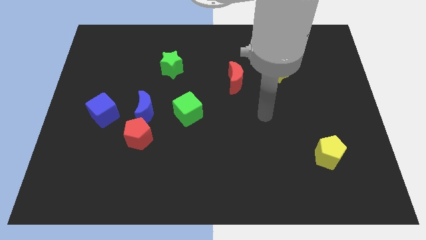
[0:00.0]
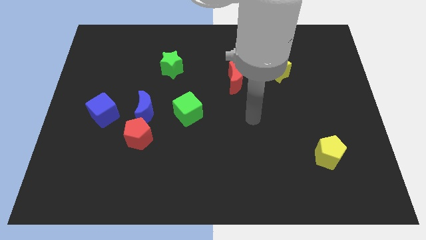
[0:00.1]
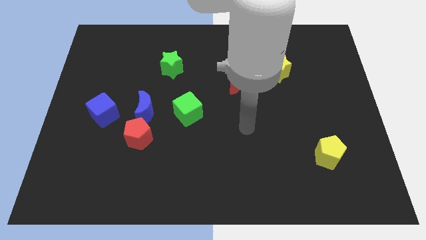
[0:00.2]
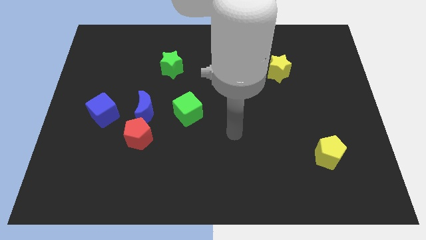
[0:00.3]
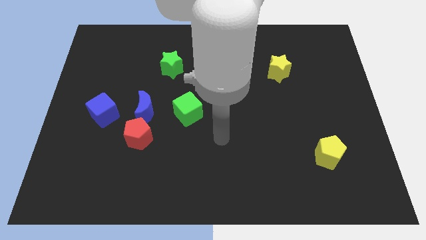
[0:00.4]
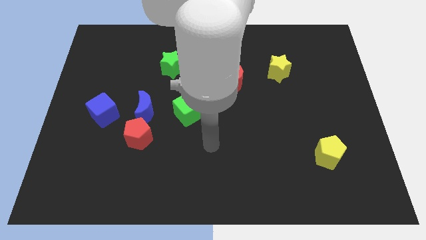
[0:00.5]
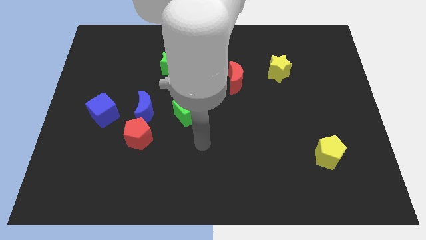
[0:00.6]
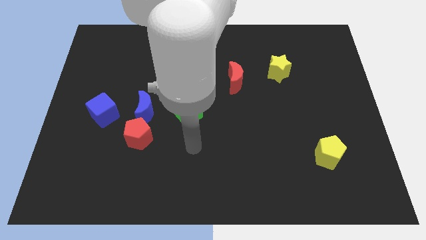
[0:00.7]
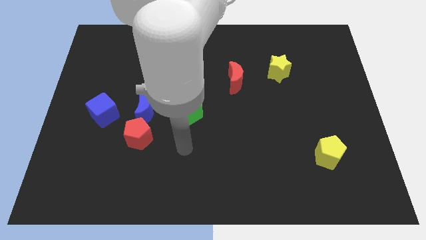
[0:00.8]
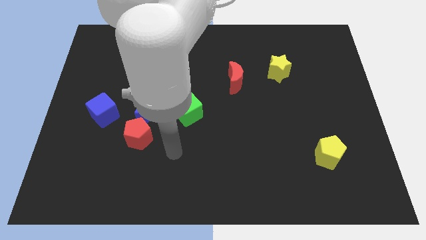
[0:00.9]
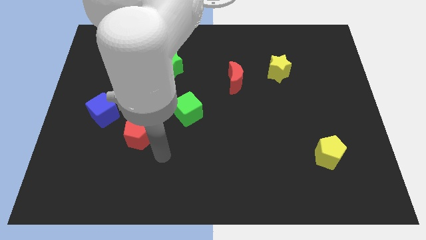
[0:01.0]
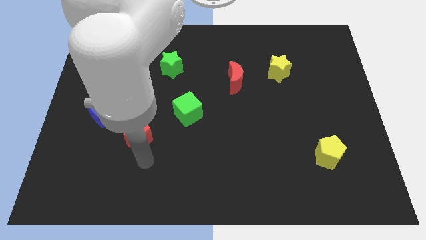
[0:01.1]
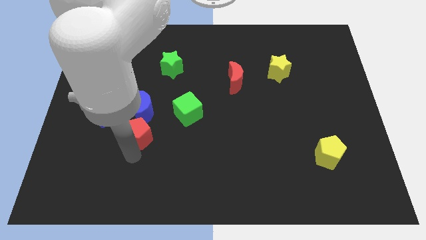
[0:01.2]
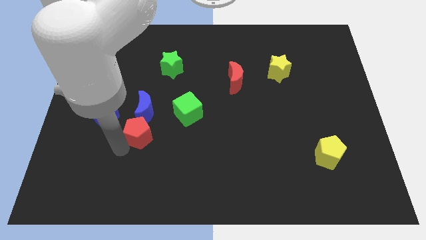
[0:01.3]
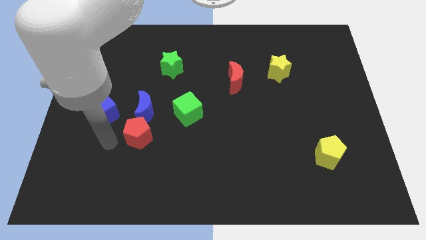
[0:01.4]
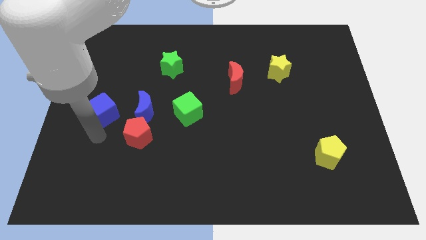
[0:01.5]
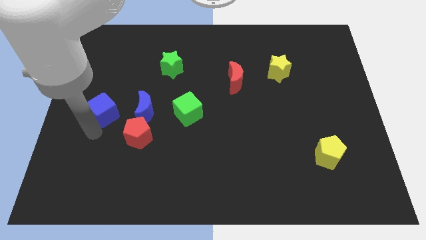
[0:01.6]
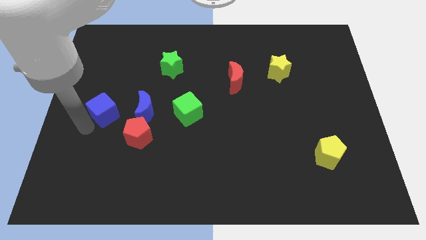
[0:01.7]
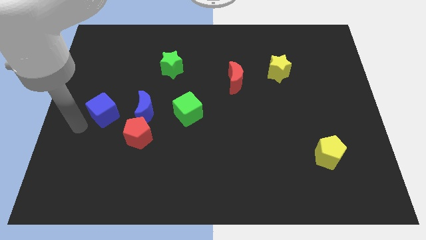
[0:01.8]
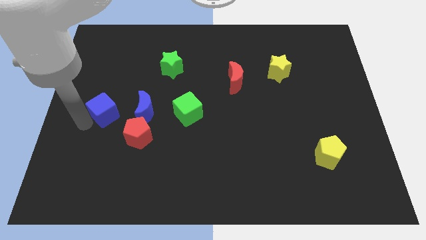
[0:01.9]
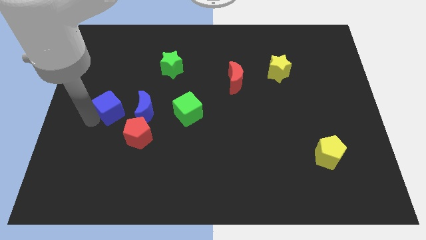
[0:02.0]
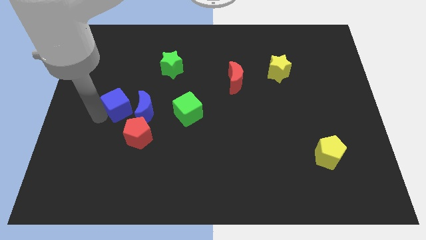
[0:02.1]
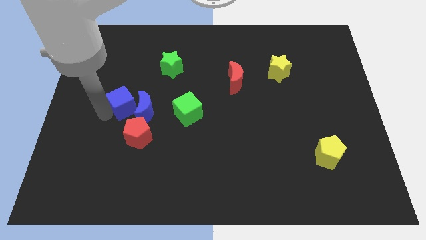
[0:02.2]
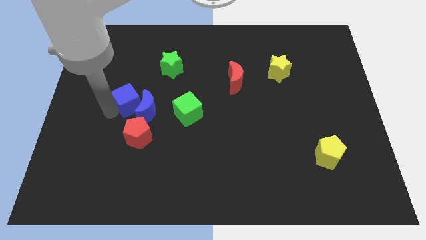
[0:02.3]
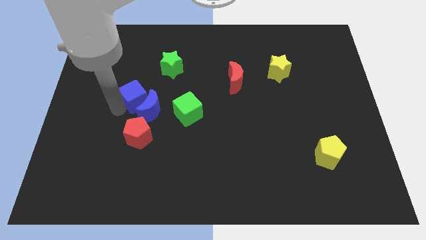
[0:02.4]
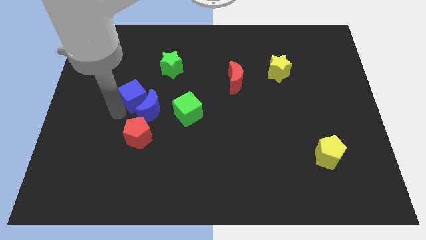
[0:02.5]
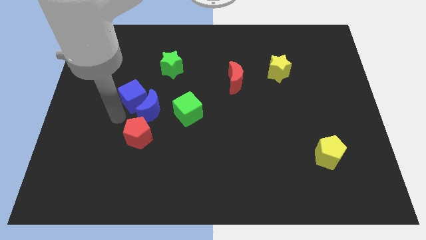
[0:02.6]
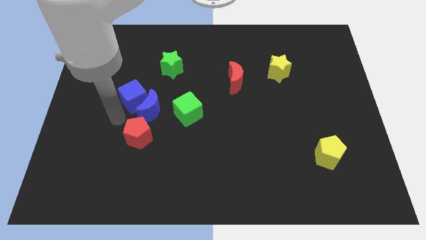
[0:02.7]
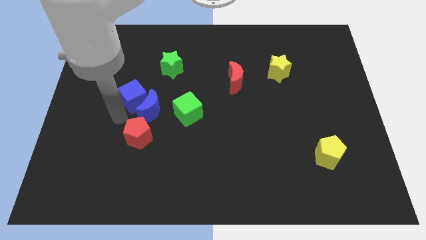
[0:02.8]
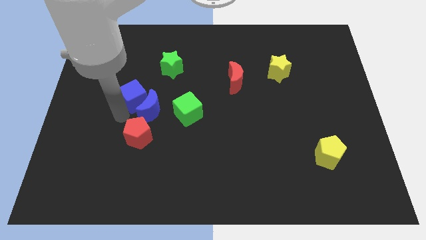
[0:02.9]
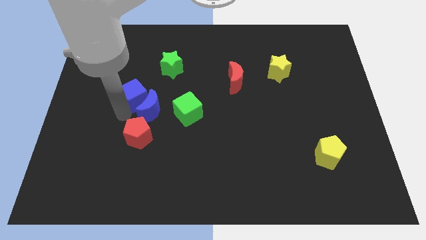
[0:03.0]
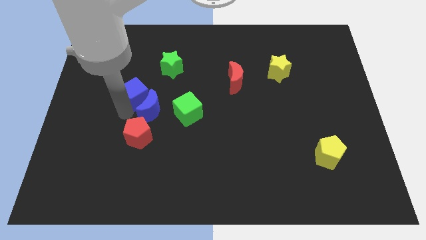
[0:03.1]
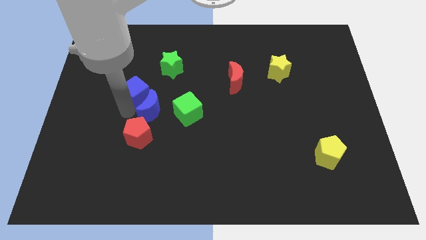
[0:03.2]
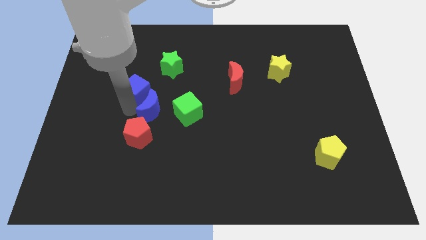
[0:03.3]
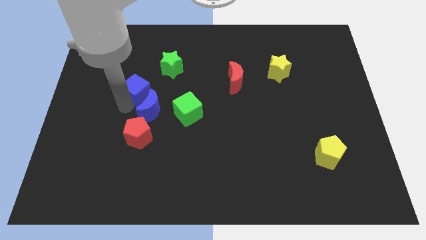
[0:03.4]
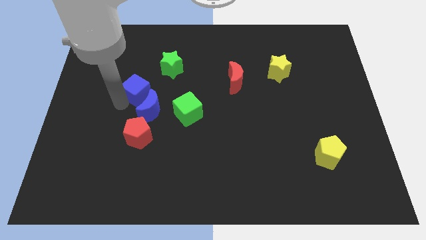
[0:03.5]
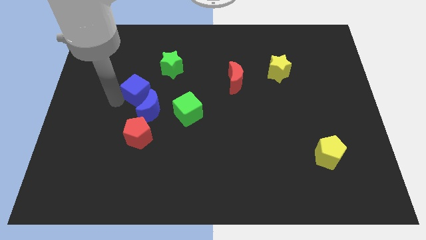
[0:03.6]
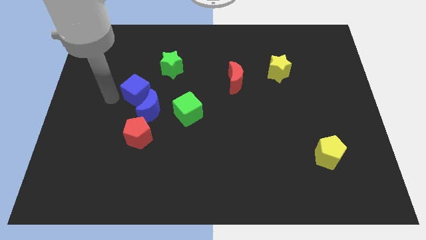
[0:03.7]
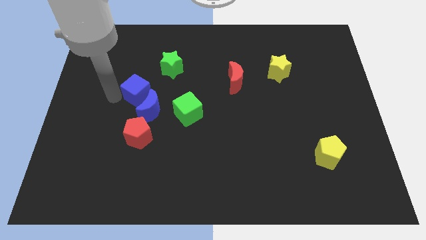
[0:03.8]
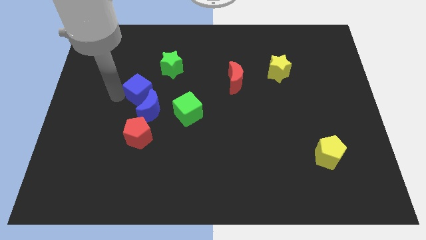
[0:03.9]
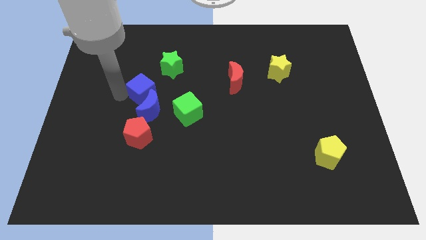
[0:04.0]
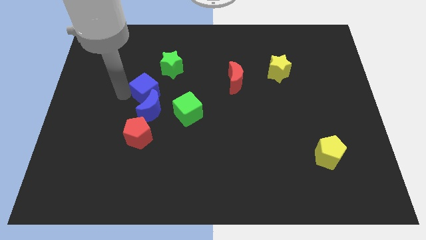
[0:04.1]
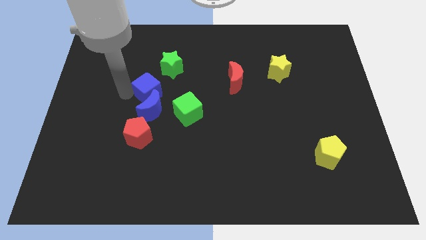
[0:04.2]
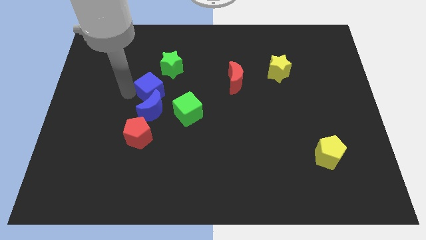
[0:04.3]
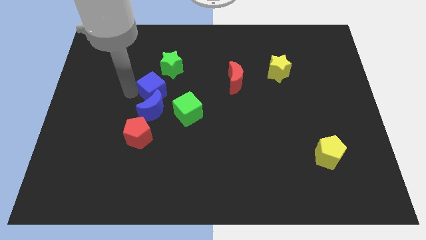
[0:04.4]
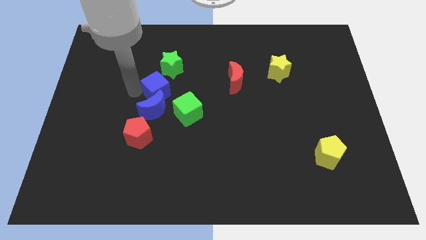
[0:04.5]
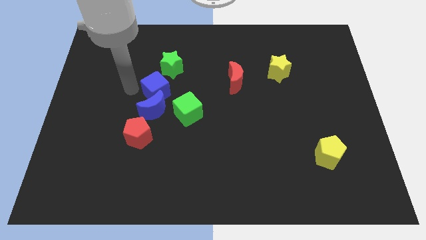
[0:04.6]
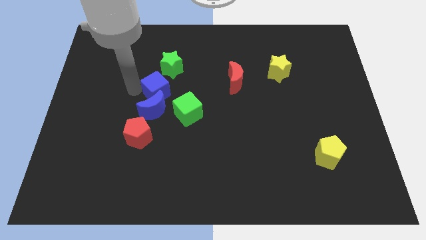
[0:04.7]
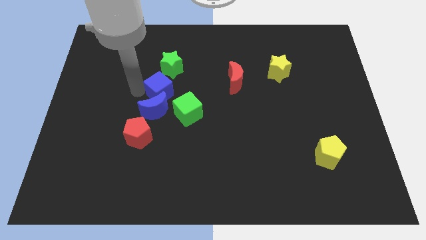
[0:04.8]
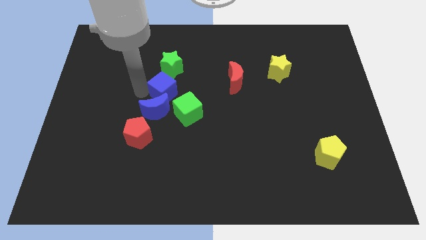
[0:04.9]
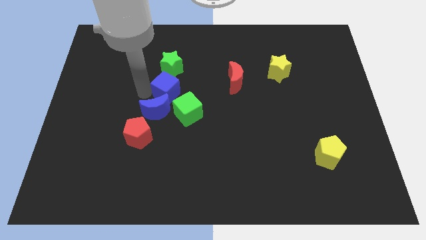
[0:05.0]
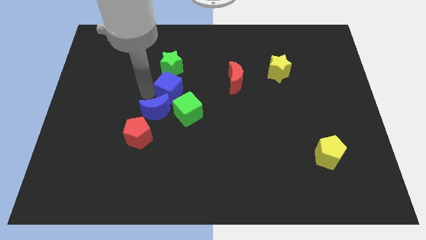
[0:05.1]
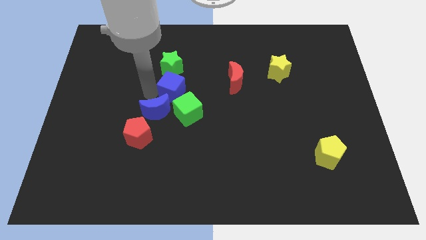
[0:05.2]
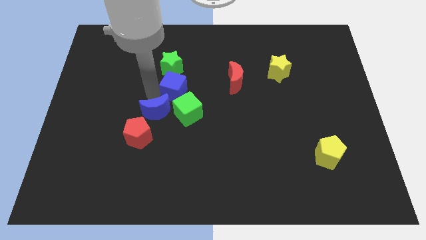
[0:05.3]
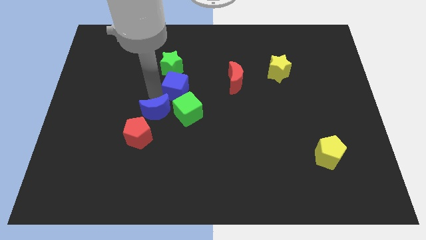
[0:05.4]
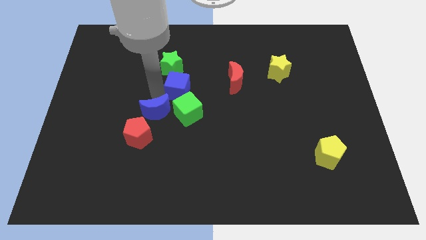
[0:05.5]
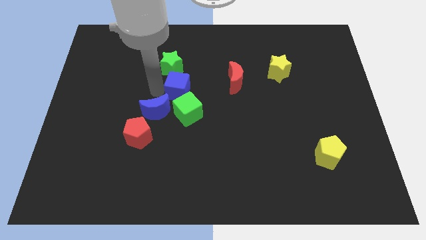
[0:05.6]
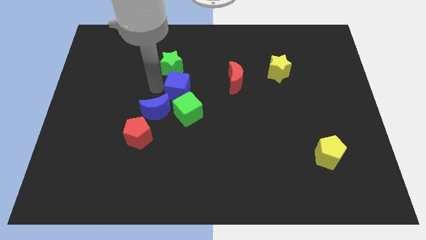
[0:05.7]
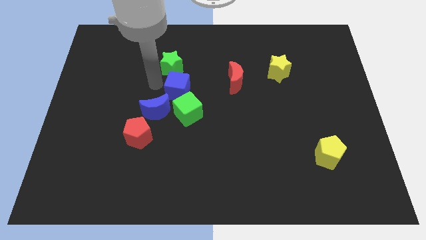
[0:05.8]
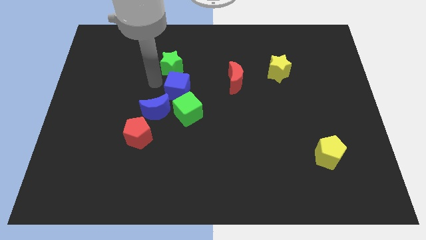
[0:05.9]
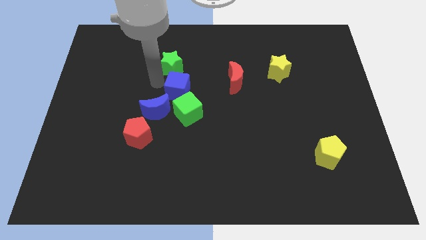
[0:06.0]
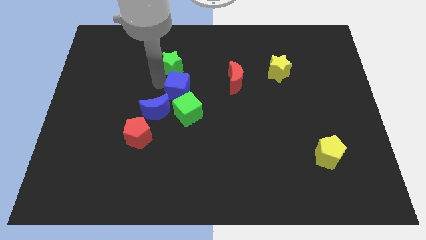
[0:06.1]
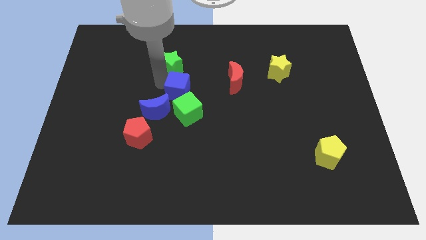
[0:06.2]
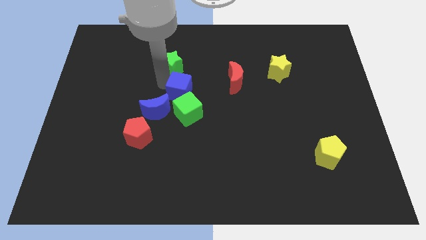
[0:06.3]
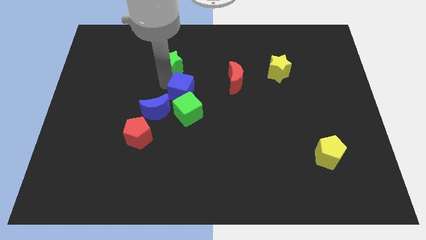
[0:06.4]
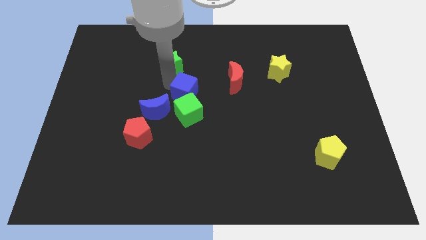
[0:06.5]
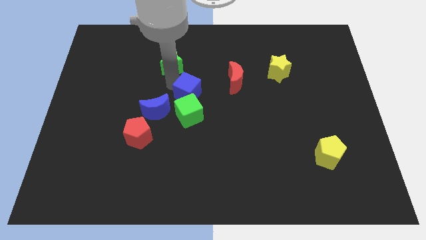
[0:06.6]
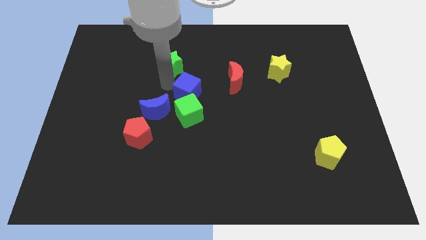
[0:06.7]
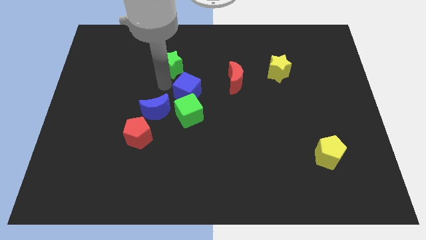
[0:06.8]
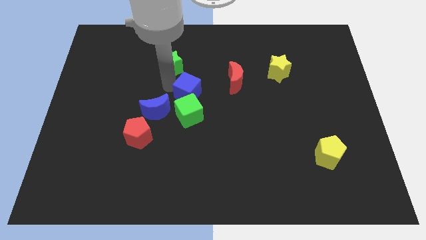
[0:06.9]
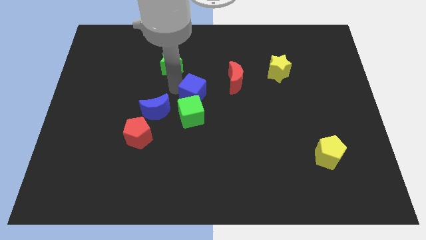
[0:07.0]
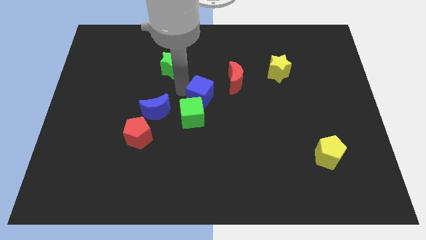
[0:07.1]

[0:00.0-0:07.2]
slide the blue cube right

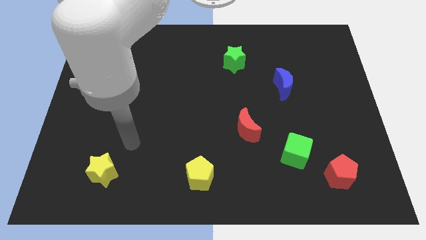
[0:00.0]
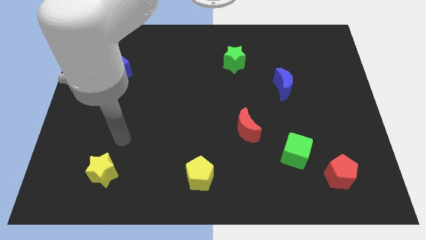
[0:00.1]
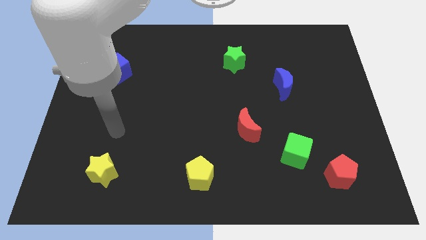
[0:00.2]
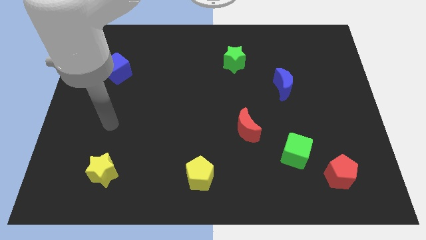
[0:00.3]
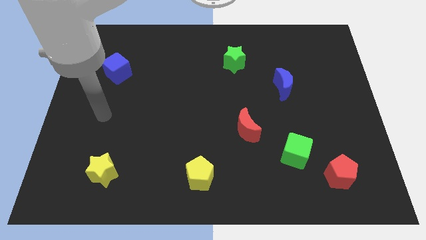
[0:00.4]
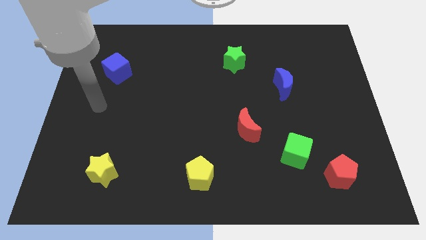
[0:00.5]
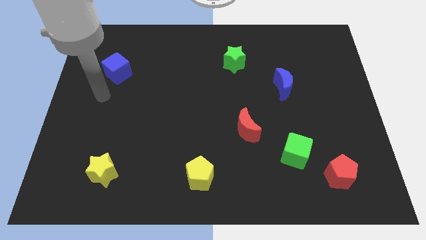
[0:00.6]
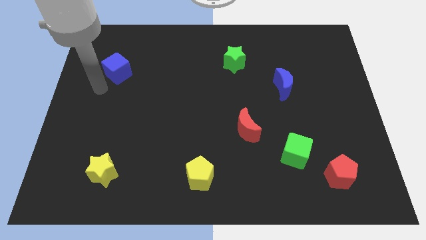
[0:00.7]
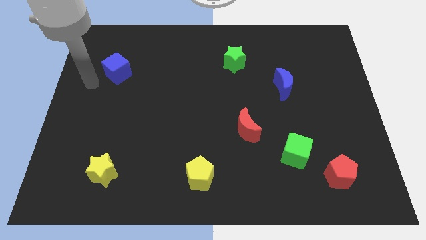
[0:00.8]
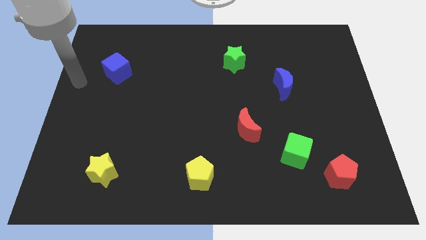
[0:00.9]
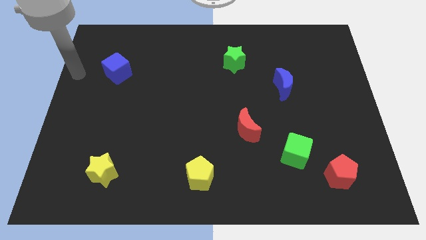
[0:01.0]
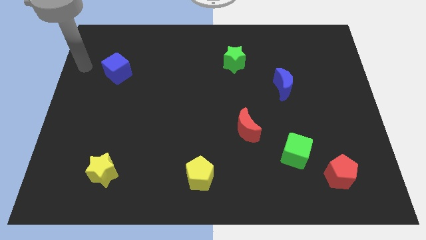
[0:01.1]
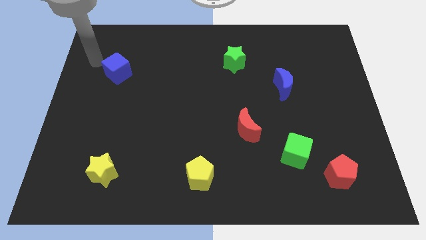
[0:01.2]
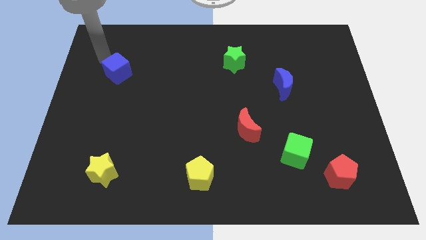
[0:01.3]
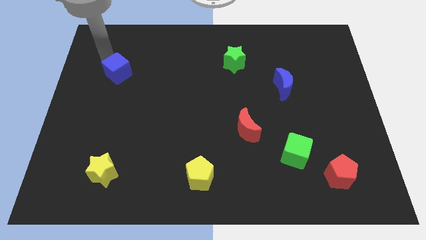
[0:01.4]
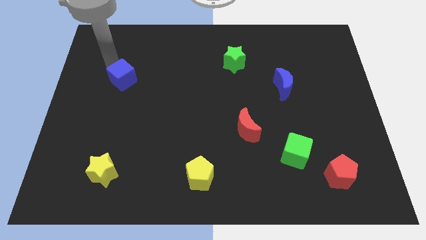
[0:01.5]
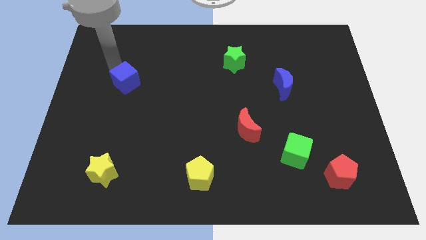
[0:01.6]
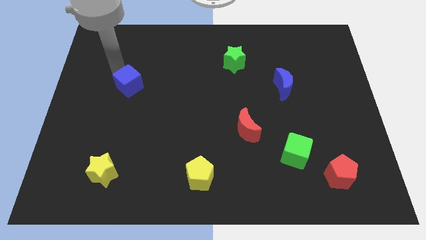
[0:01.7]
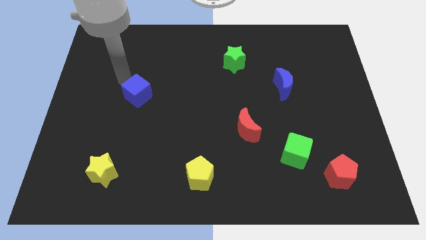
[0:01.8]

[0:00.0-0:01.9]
slide the blue cube a little bit downwards and to the right diagonally
